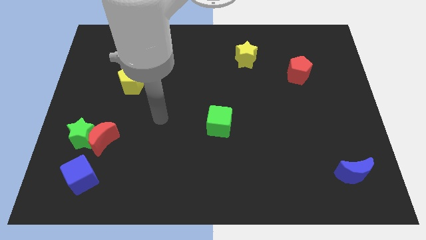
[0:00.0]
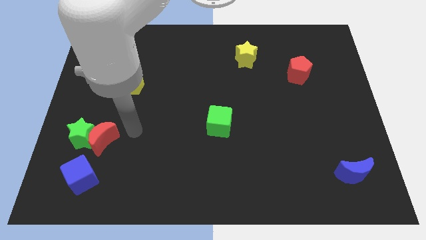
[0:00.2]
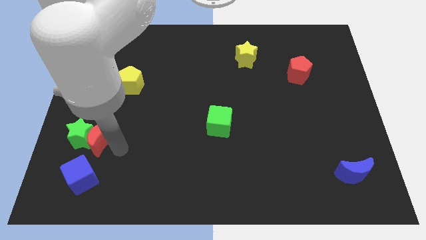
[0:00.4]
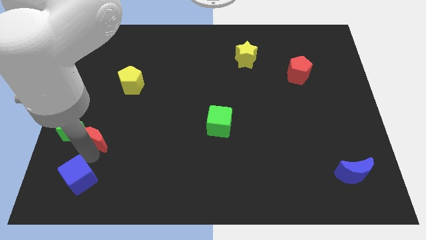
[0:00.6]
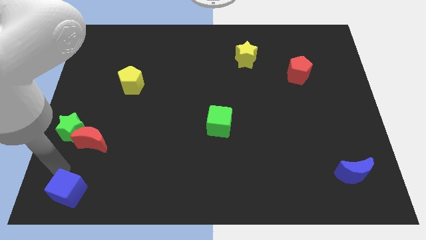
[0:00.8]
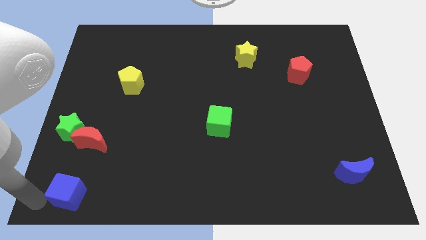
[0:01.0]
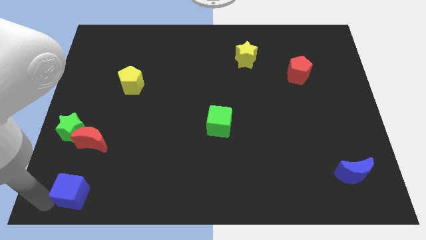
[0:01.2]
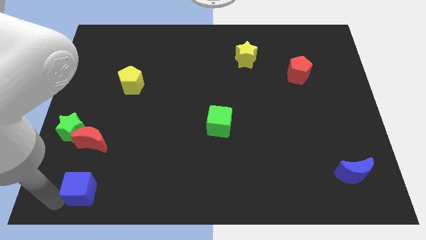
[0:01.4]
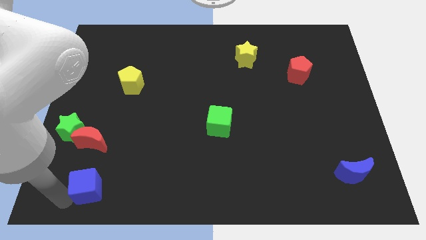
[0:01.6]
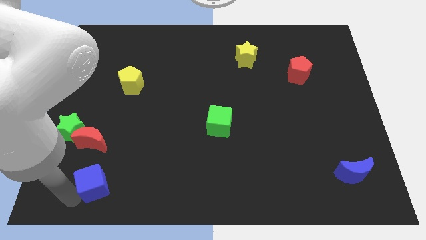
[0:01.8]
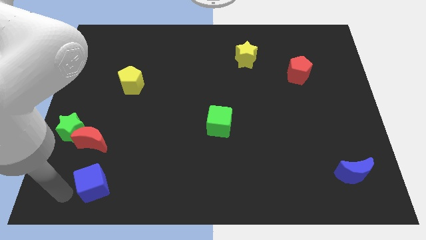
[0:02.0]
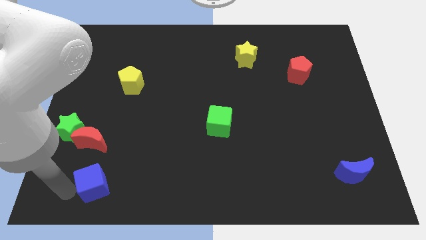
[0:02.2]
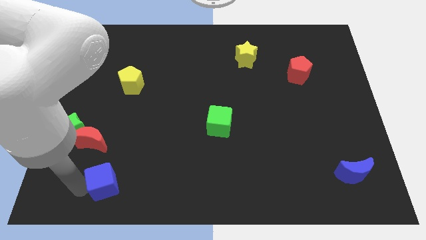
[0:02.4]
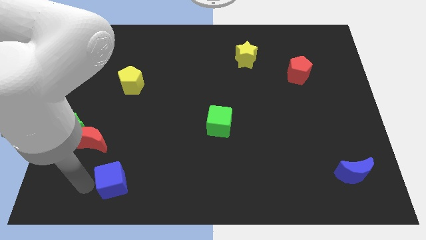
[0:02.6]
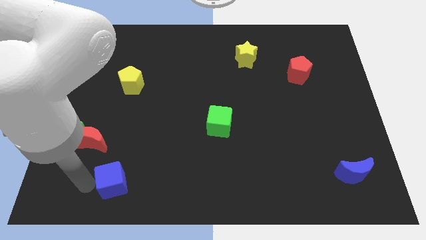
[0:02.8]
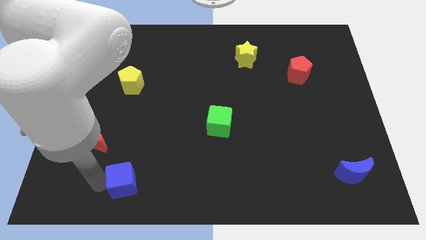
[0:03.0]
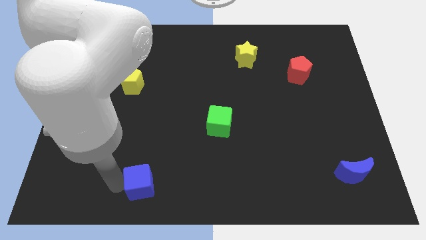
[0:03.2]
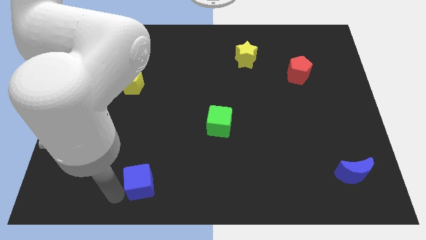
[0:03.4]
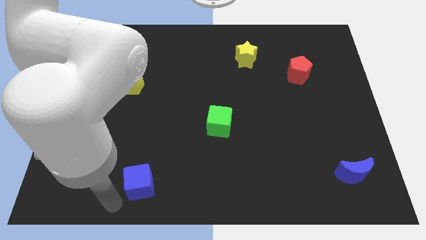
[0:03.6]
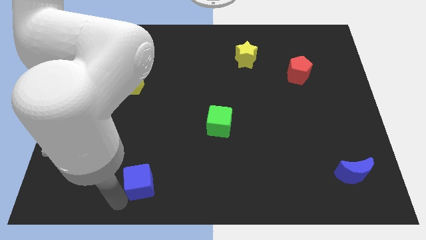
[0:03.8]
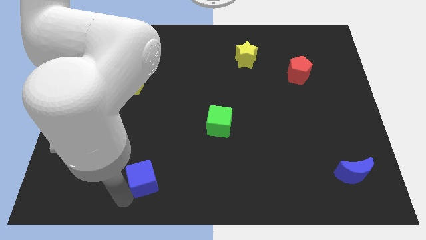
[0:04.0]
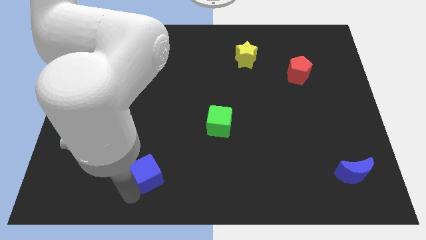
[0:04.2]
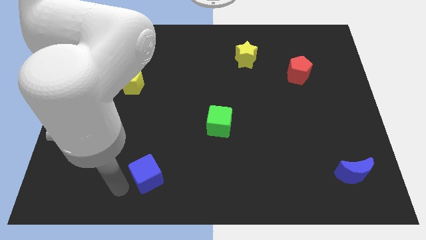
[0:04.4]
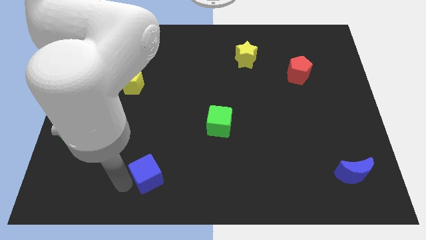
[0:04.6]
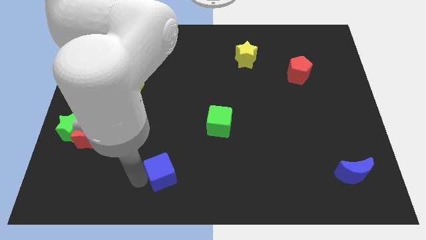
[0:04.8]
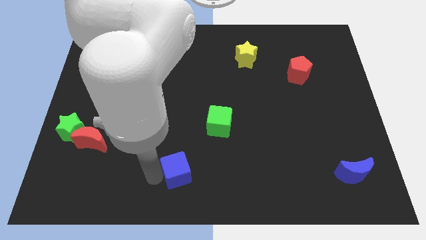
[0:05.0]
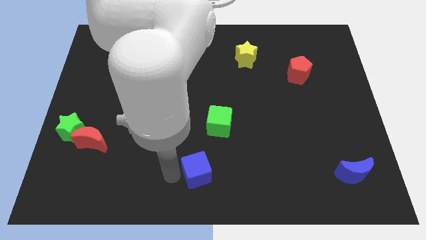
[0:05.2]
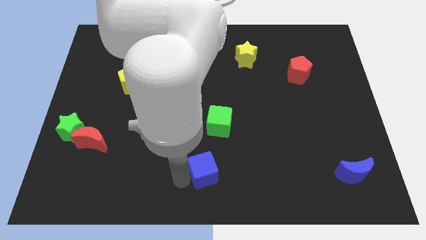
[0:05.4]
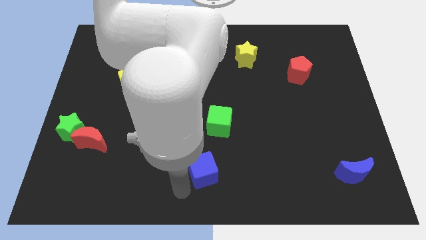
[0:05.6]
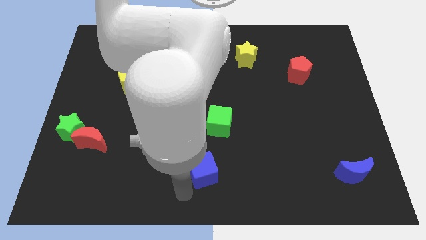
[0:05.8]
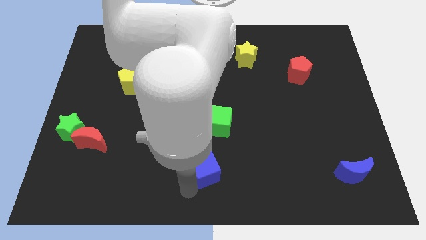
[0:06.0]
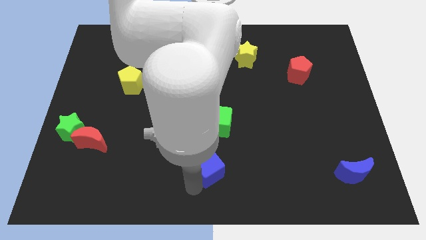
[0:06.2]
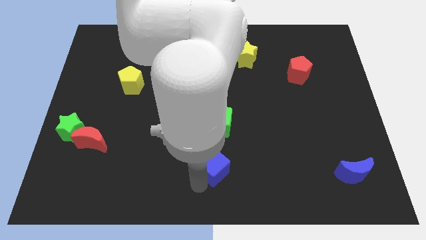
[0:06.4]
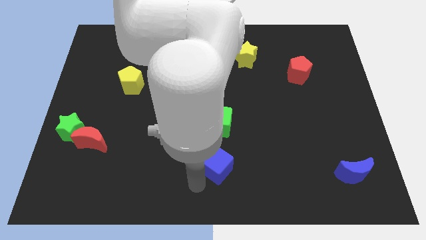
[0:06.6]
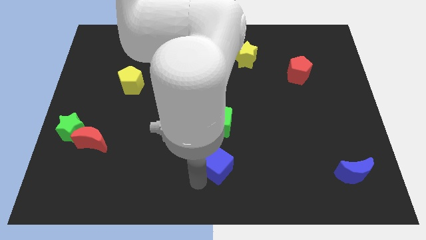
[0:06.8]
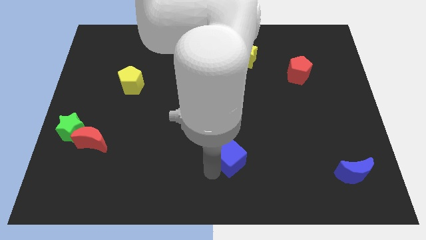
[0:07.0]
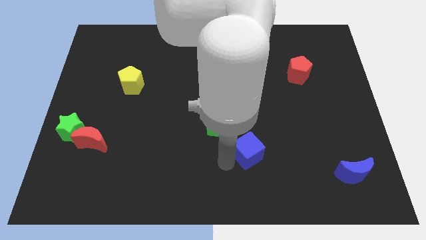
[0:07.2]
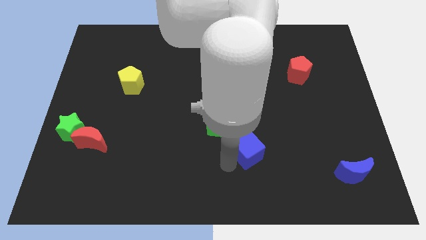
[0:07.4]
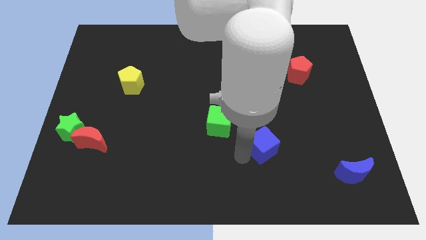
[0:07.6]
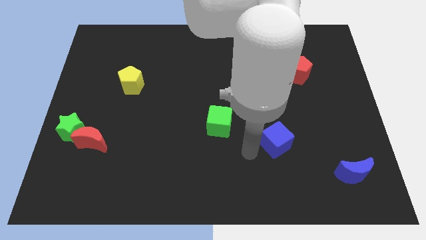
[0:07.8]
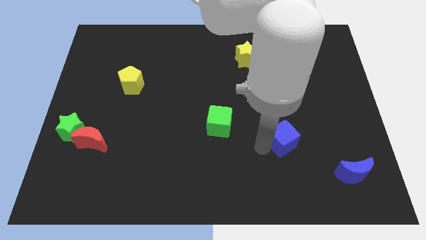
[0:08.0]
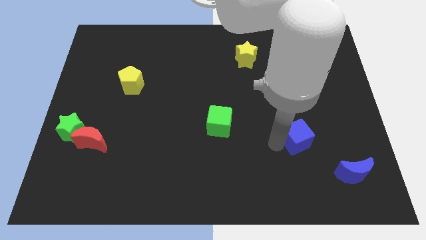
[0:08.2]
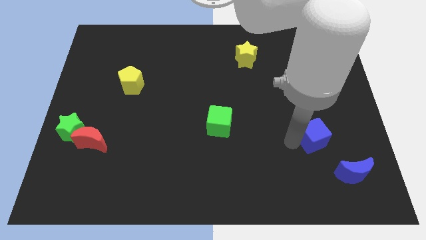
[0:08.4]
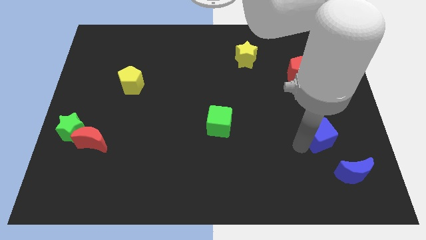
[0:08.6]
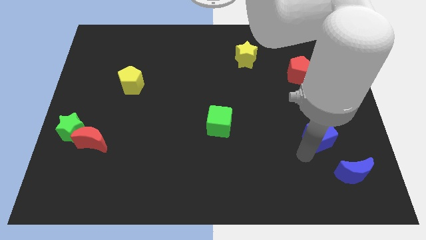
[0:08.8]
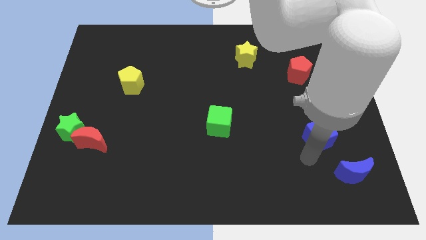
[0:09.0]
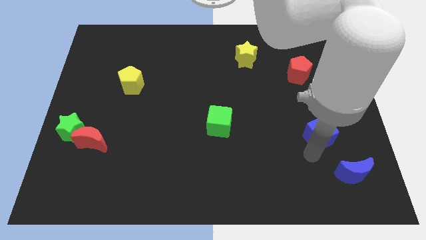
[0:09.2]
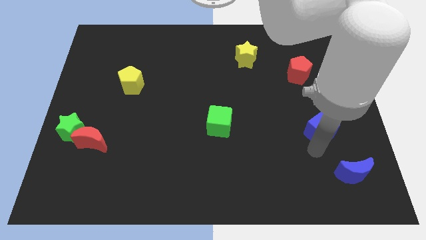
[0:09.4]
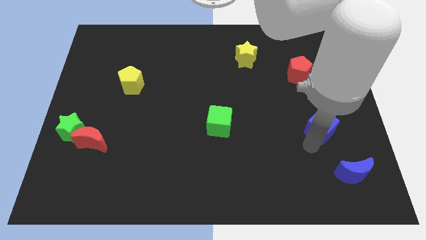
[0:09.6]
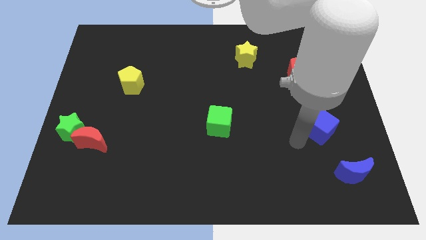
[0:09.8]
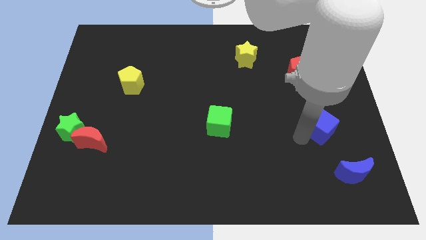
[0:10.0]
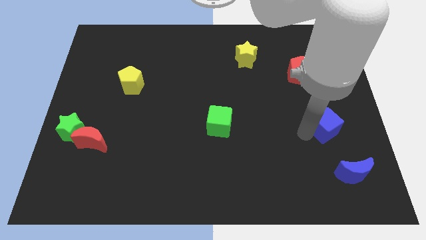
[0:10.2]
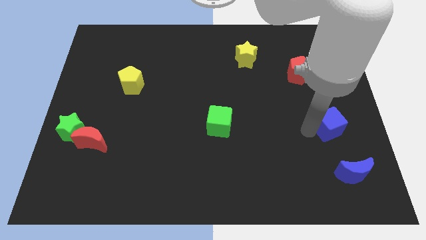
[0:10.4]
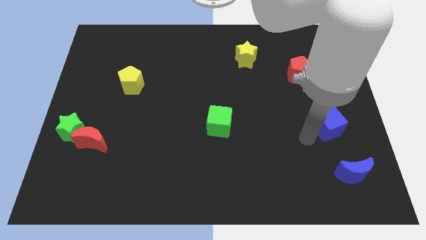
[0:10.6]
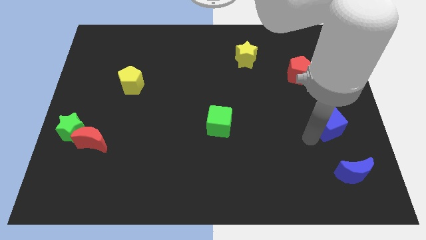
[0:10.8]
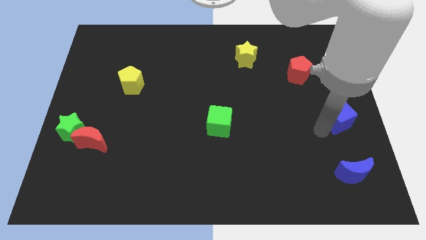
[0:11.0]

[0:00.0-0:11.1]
slide the blue cube to the right side of the board

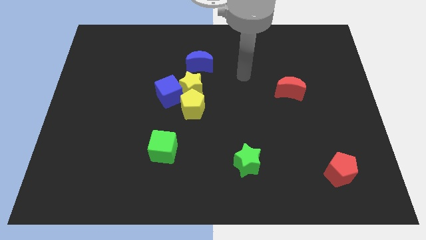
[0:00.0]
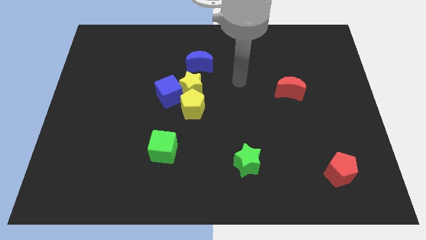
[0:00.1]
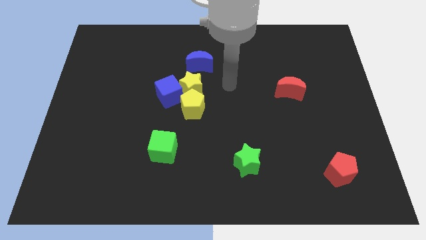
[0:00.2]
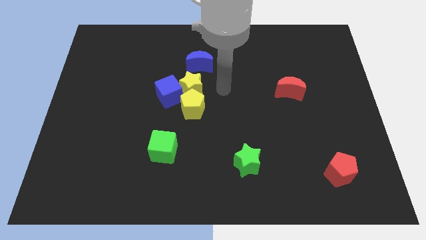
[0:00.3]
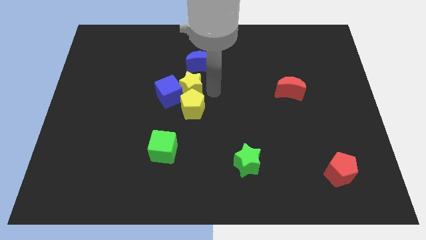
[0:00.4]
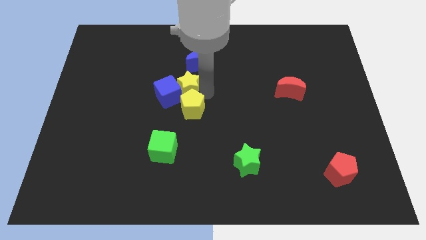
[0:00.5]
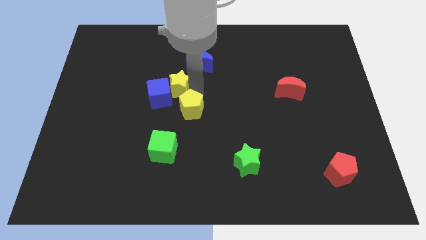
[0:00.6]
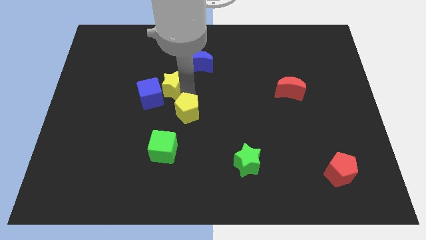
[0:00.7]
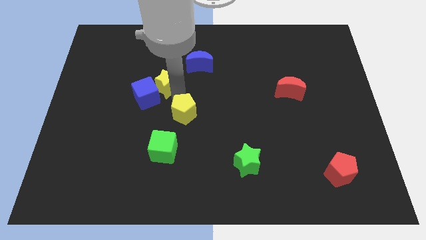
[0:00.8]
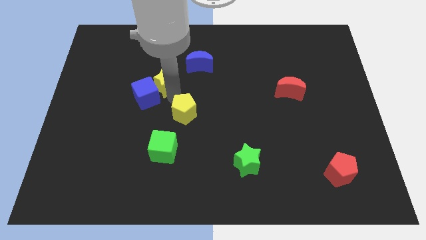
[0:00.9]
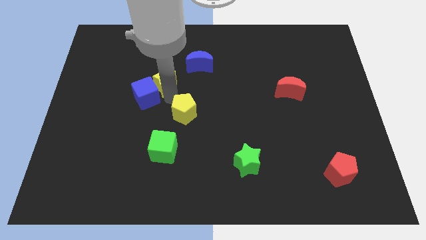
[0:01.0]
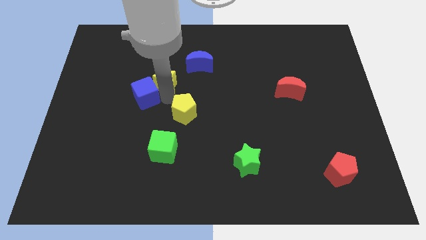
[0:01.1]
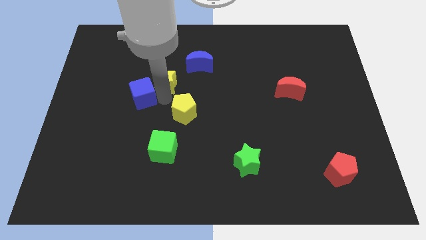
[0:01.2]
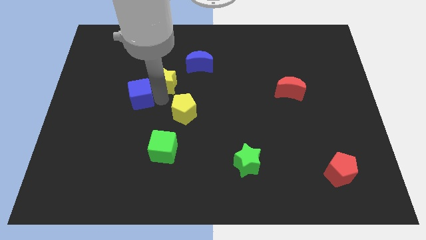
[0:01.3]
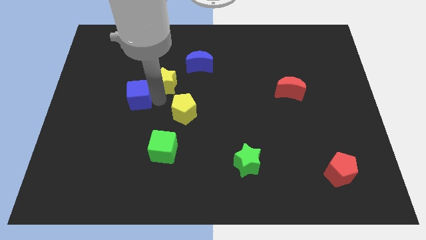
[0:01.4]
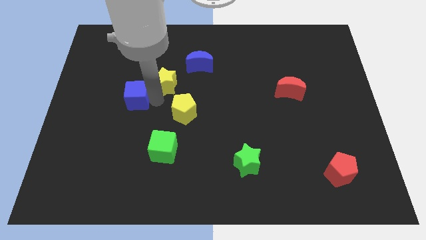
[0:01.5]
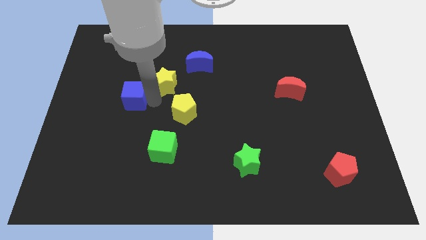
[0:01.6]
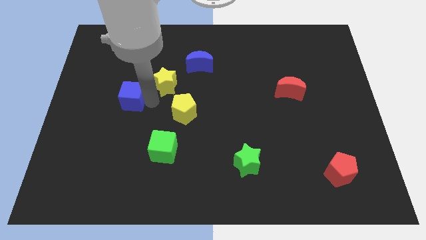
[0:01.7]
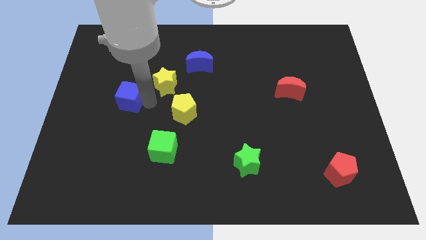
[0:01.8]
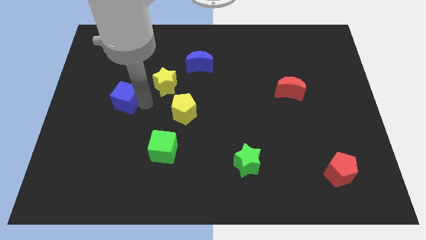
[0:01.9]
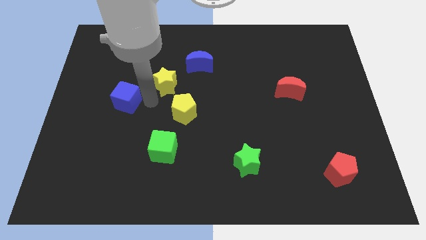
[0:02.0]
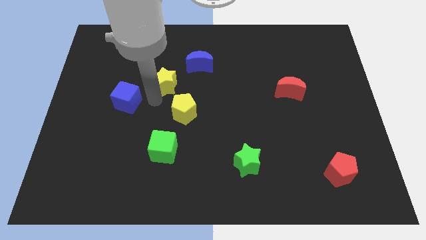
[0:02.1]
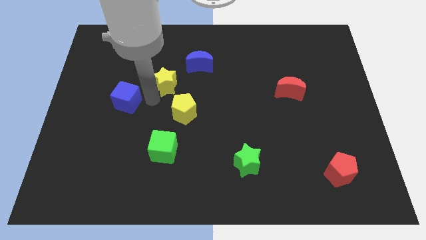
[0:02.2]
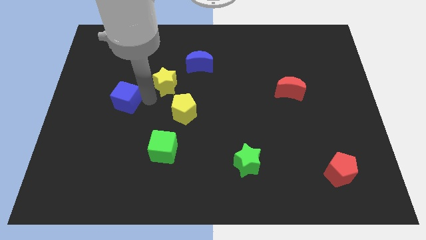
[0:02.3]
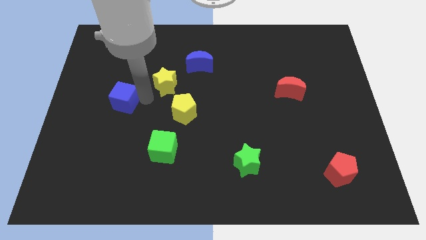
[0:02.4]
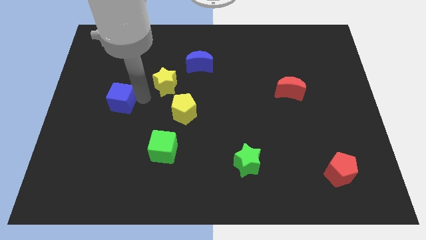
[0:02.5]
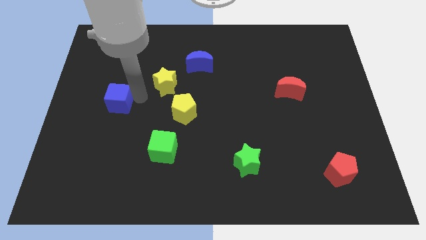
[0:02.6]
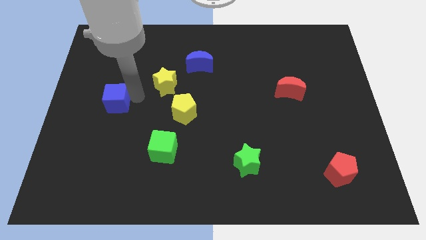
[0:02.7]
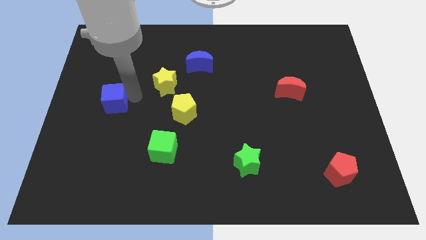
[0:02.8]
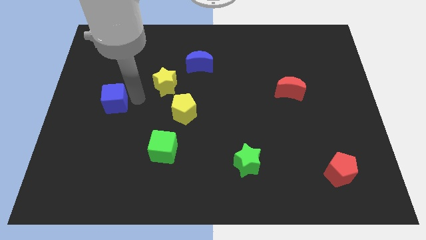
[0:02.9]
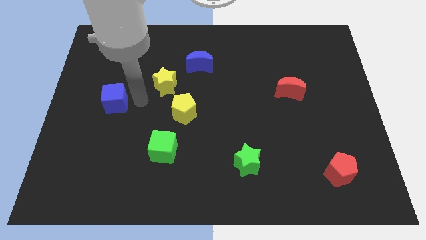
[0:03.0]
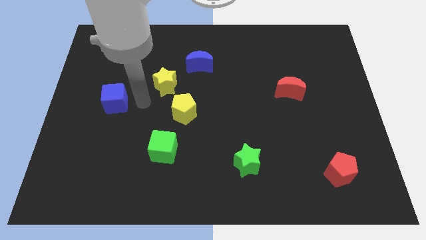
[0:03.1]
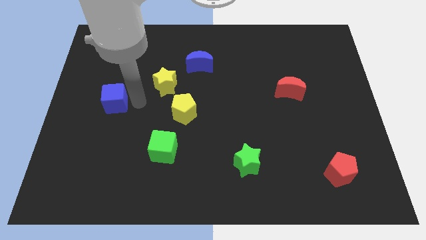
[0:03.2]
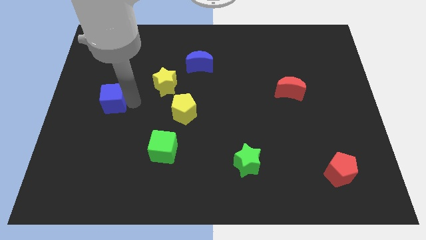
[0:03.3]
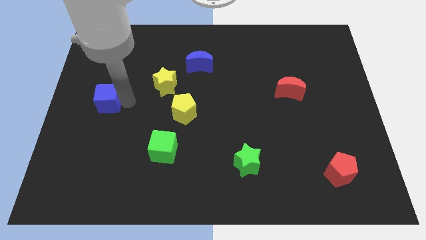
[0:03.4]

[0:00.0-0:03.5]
push the blue cube to the center left
